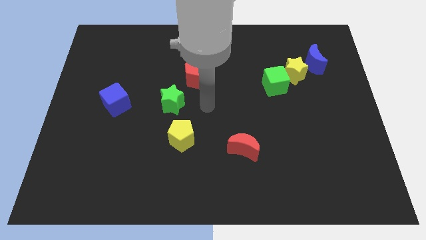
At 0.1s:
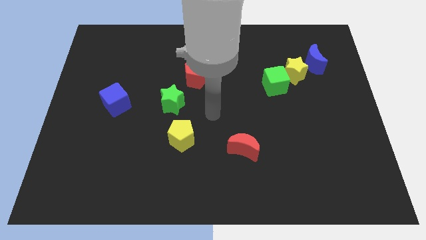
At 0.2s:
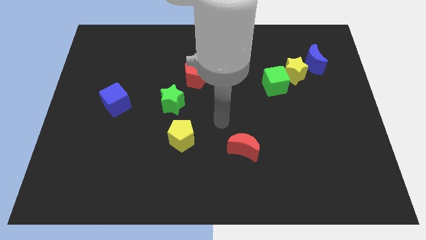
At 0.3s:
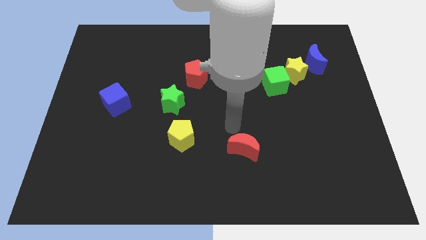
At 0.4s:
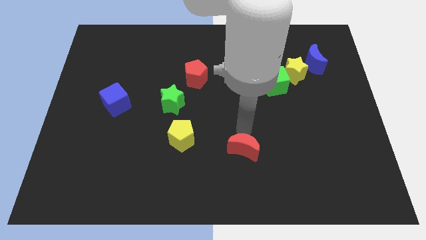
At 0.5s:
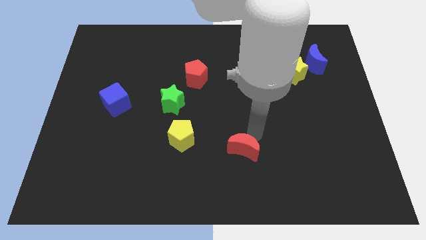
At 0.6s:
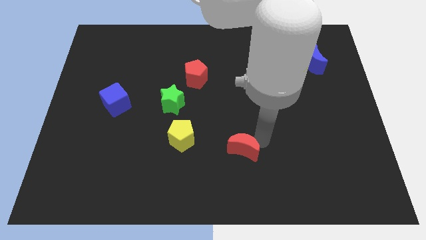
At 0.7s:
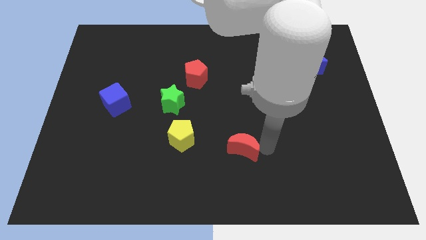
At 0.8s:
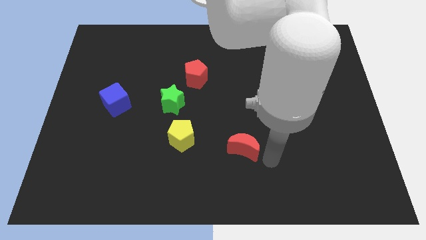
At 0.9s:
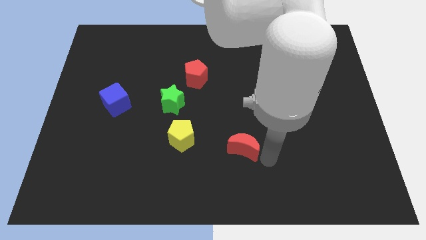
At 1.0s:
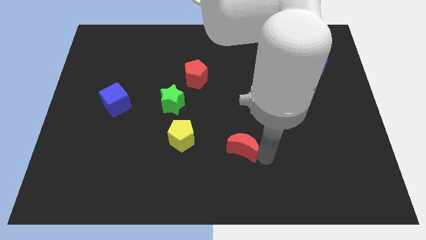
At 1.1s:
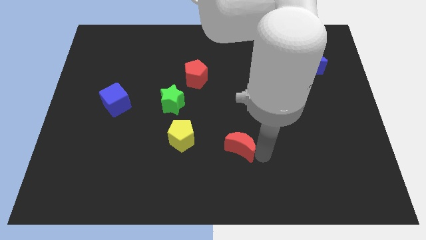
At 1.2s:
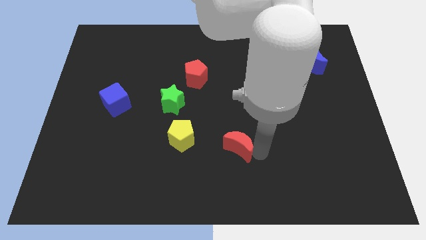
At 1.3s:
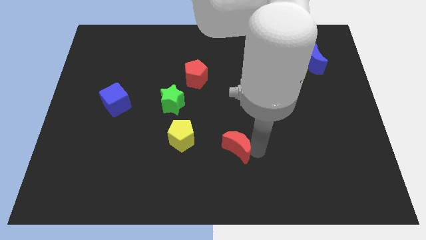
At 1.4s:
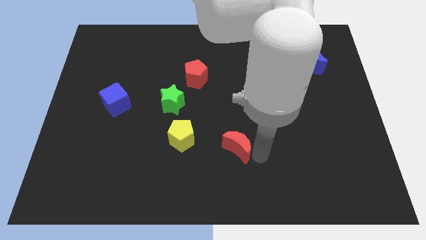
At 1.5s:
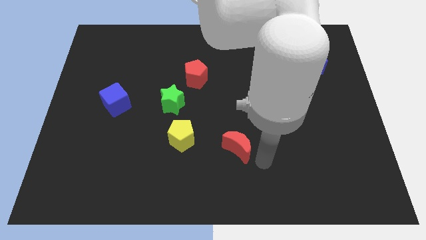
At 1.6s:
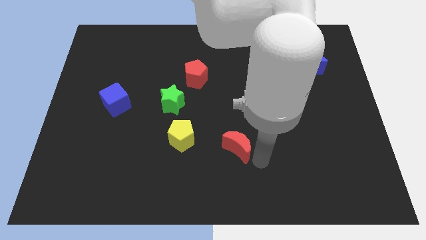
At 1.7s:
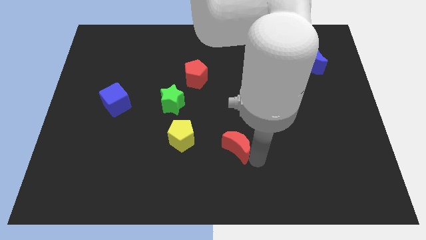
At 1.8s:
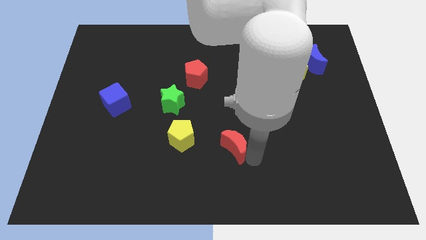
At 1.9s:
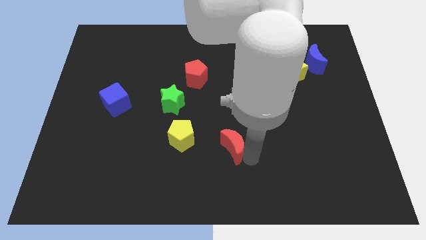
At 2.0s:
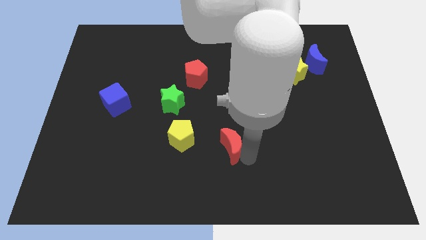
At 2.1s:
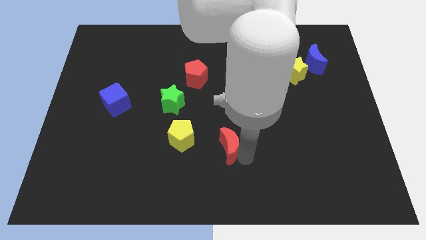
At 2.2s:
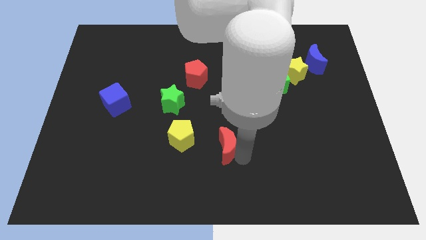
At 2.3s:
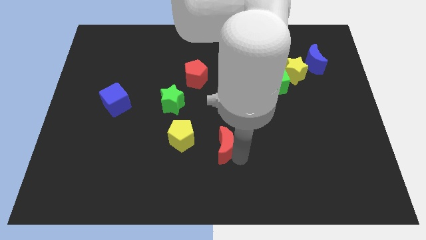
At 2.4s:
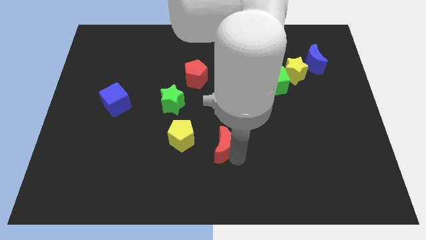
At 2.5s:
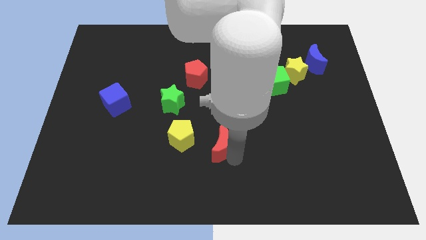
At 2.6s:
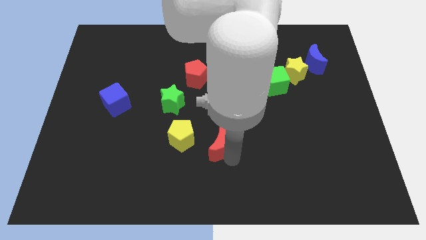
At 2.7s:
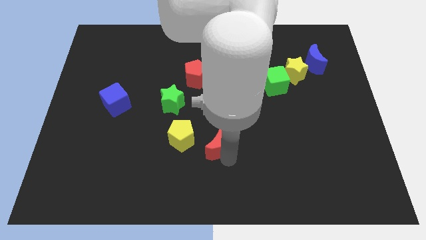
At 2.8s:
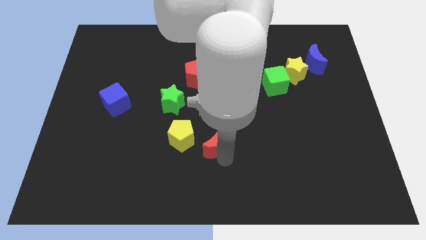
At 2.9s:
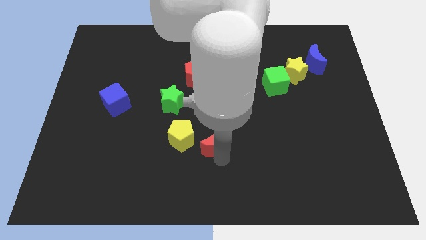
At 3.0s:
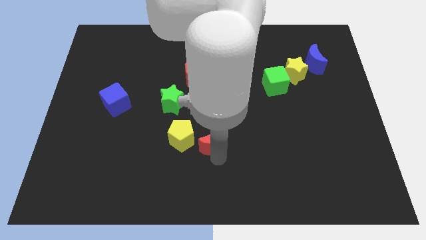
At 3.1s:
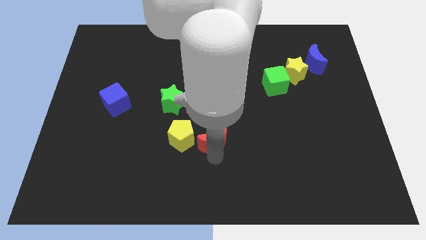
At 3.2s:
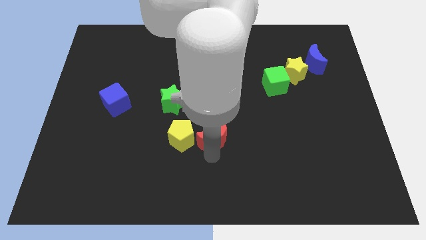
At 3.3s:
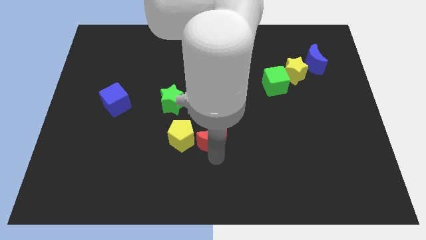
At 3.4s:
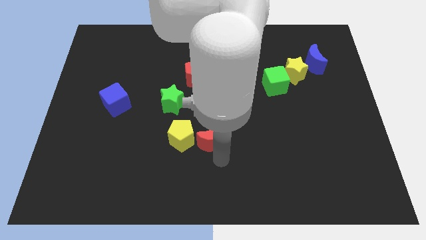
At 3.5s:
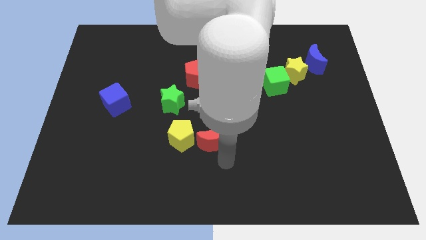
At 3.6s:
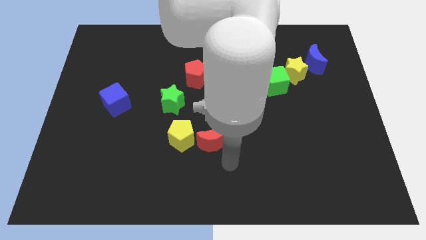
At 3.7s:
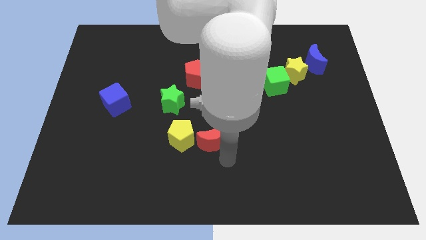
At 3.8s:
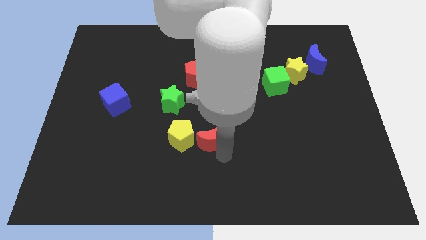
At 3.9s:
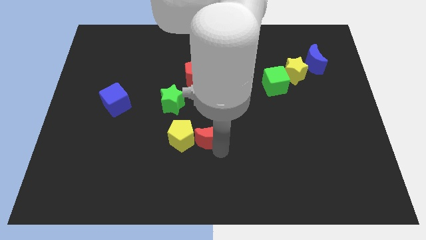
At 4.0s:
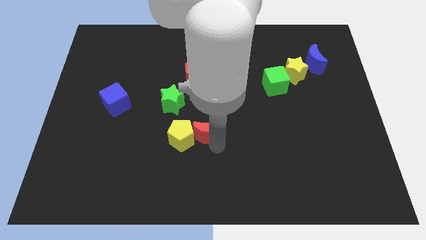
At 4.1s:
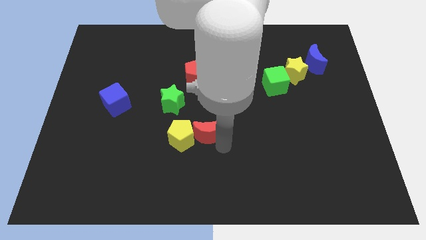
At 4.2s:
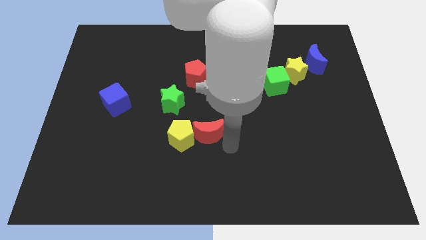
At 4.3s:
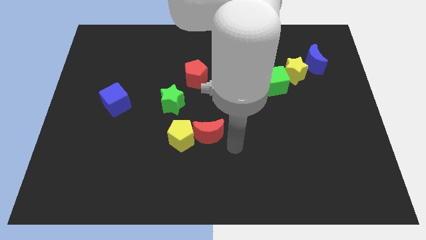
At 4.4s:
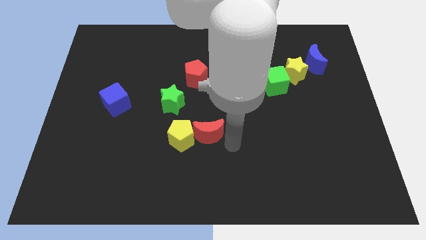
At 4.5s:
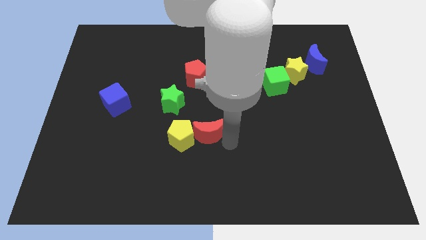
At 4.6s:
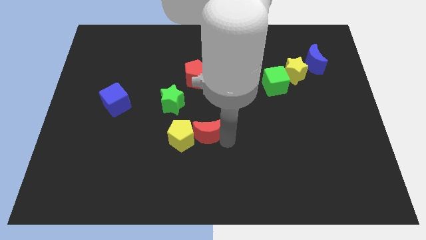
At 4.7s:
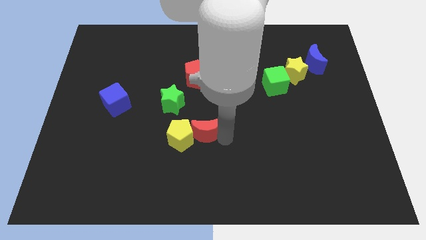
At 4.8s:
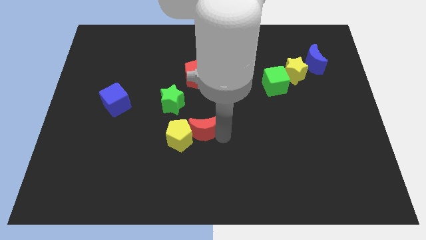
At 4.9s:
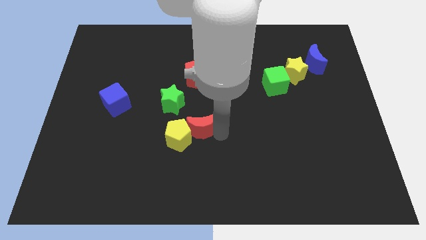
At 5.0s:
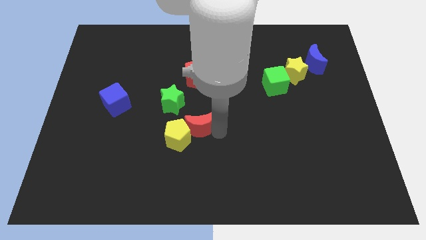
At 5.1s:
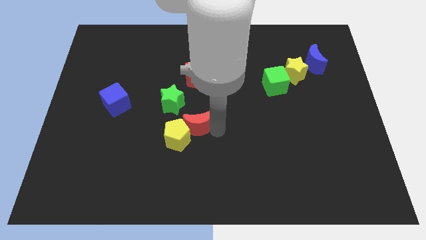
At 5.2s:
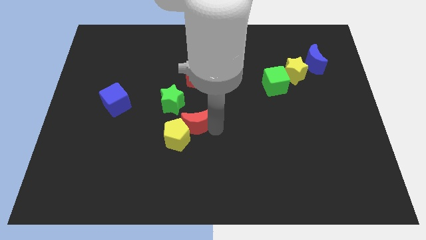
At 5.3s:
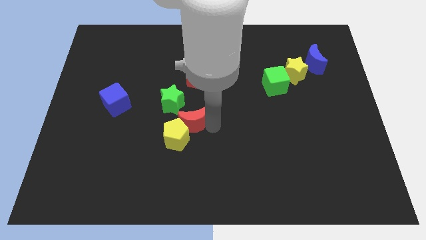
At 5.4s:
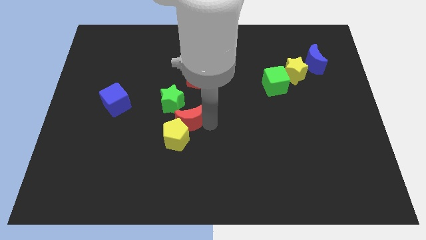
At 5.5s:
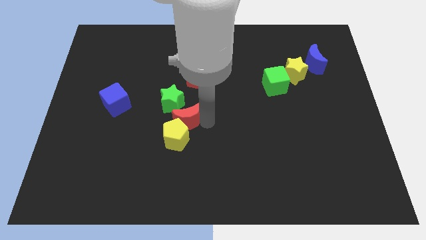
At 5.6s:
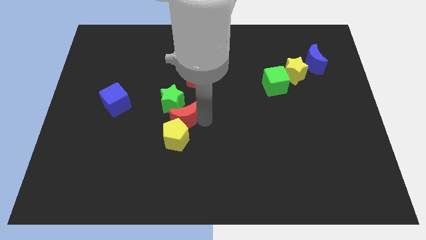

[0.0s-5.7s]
slide the red moon close to the green star

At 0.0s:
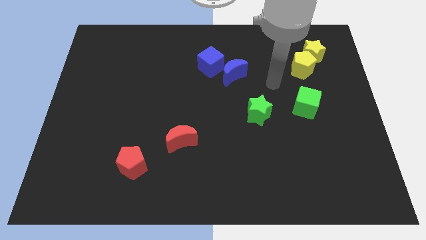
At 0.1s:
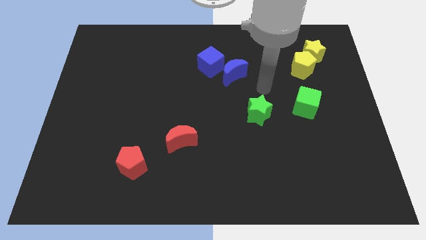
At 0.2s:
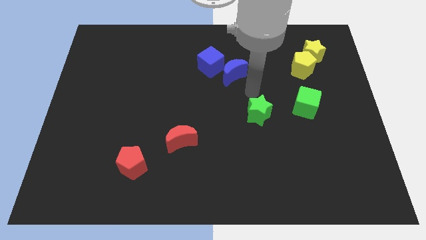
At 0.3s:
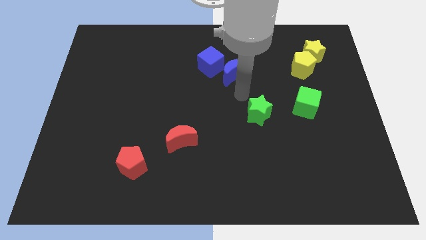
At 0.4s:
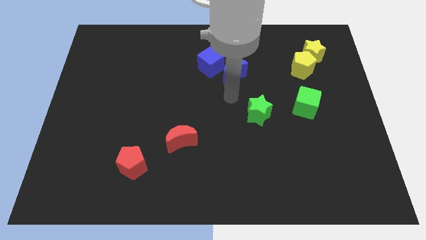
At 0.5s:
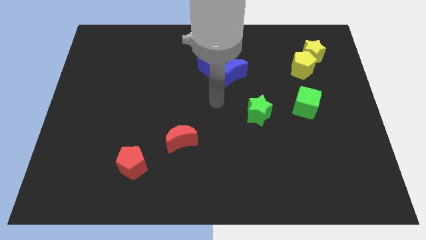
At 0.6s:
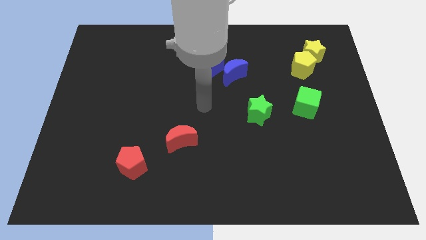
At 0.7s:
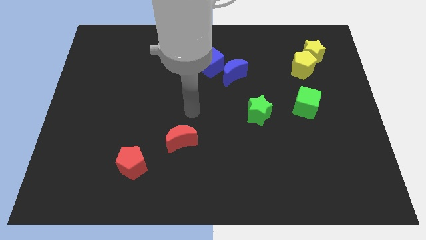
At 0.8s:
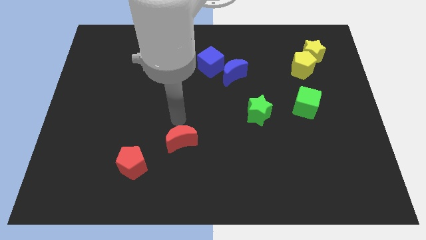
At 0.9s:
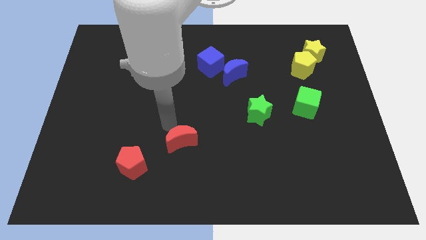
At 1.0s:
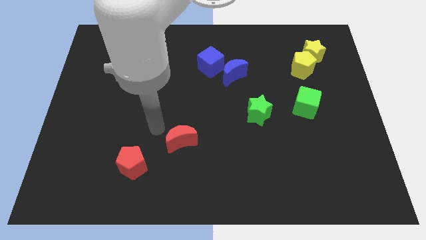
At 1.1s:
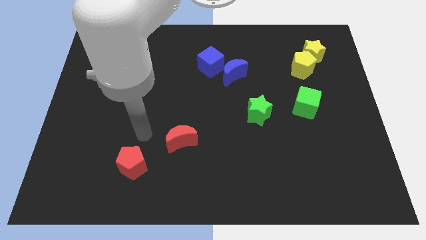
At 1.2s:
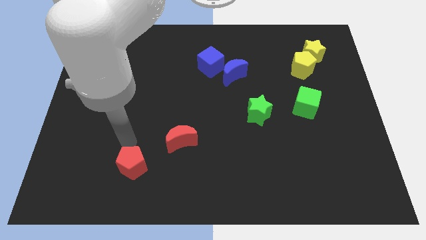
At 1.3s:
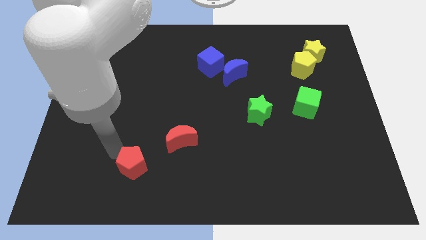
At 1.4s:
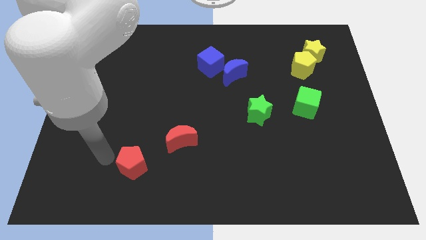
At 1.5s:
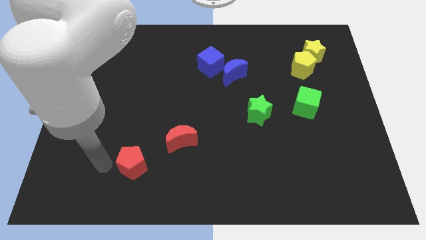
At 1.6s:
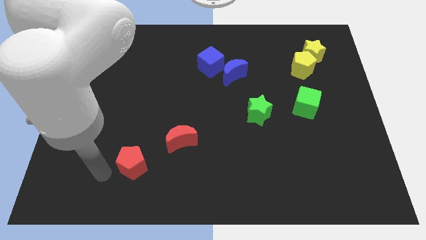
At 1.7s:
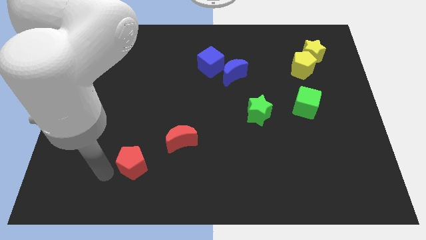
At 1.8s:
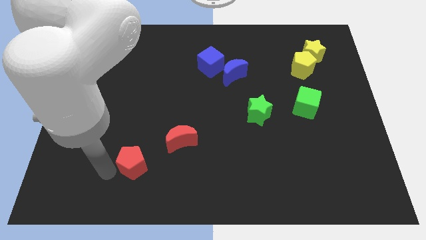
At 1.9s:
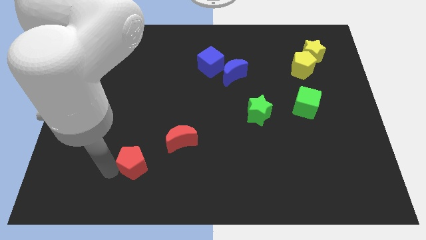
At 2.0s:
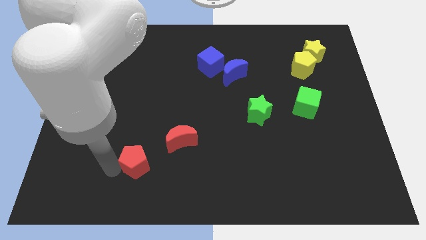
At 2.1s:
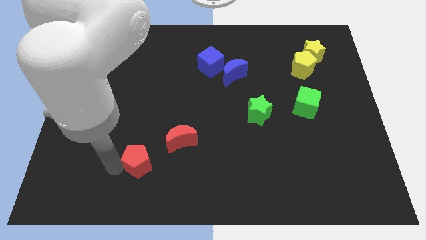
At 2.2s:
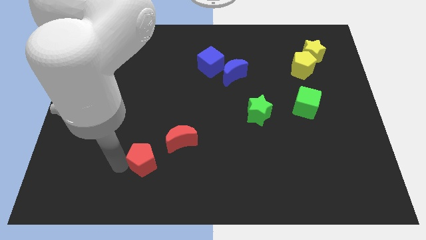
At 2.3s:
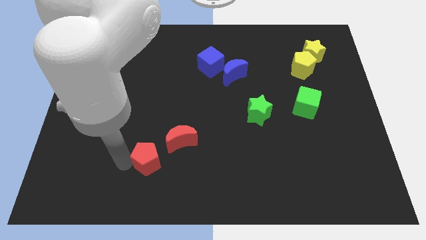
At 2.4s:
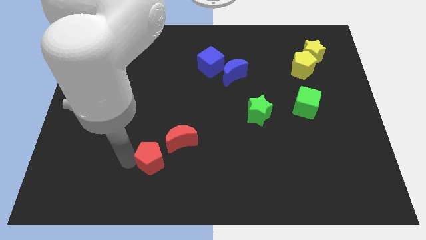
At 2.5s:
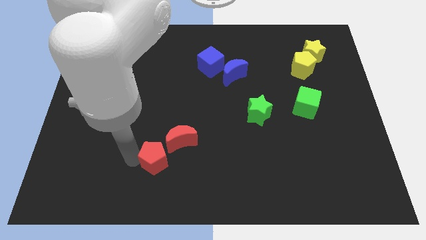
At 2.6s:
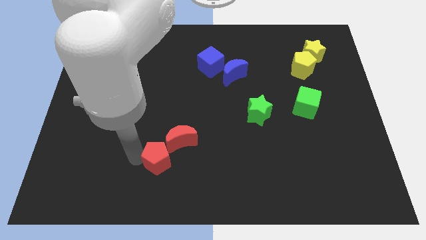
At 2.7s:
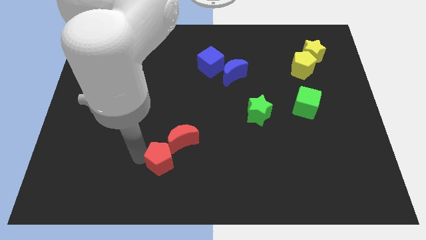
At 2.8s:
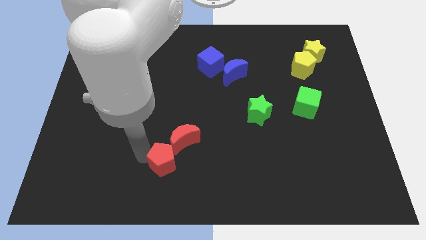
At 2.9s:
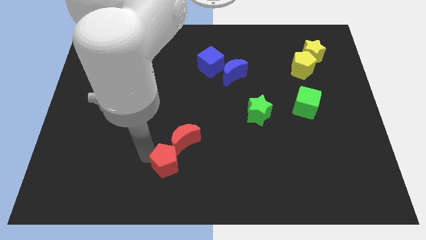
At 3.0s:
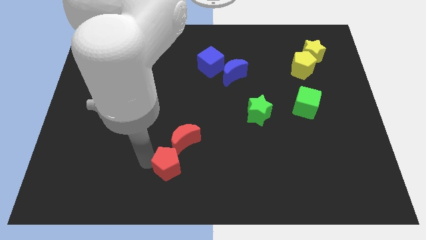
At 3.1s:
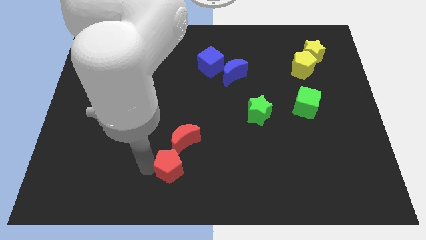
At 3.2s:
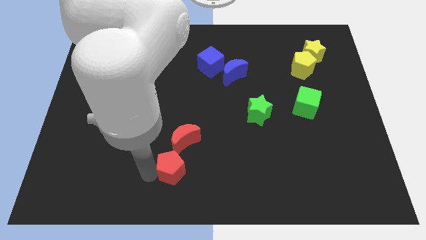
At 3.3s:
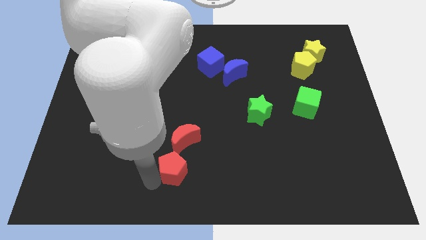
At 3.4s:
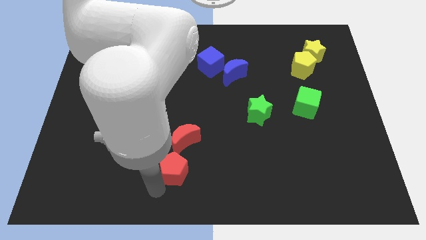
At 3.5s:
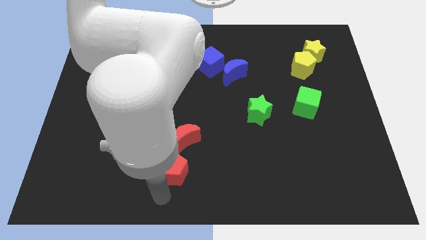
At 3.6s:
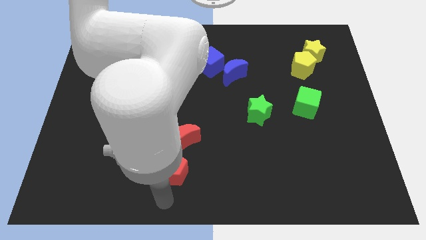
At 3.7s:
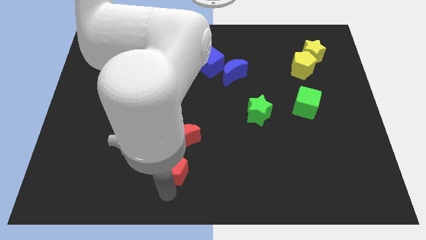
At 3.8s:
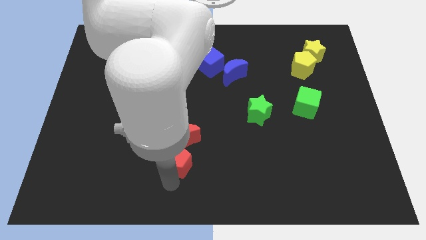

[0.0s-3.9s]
slide the red pentagon to the red moon
